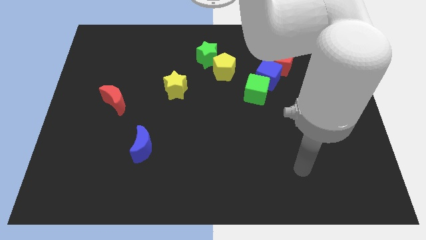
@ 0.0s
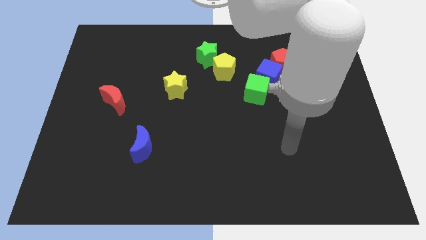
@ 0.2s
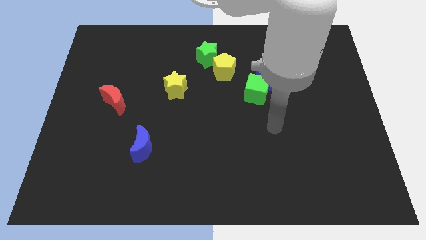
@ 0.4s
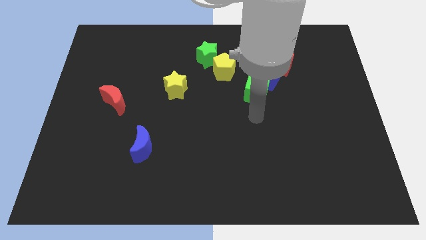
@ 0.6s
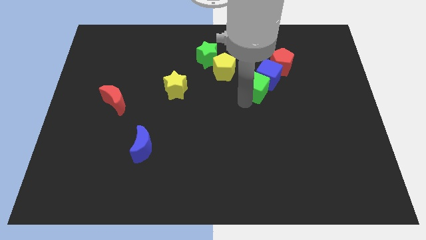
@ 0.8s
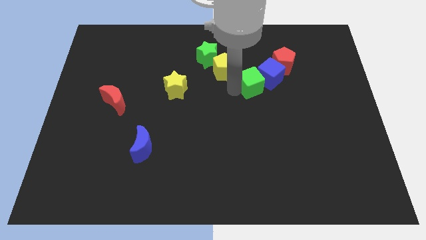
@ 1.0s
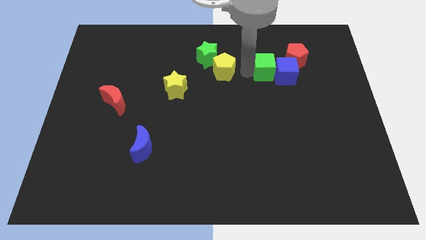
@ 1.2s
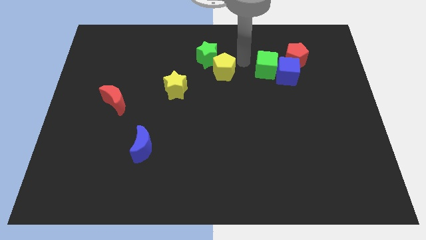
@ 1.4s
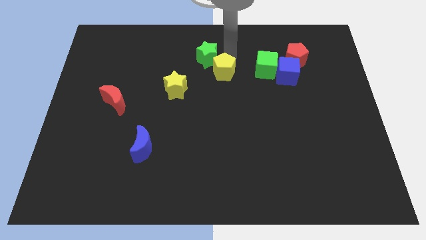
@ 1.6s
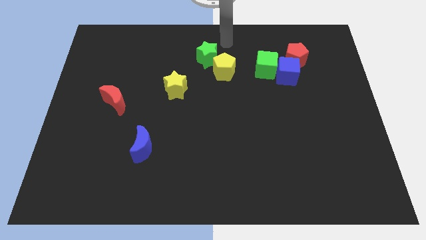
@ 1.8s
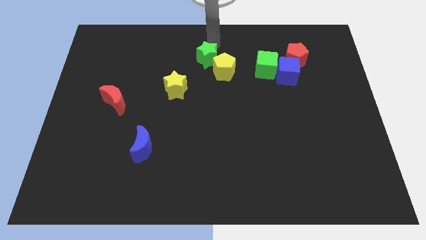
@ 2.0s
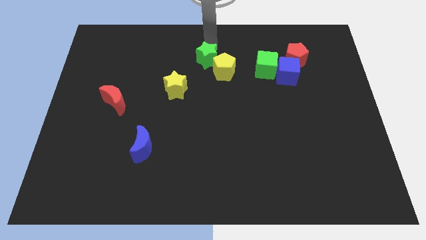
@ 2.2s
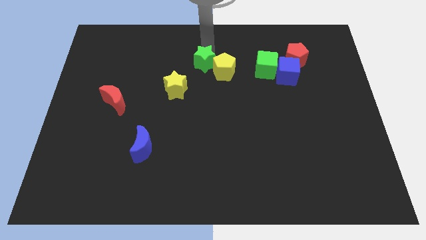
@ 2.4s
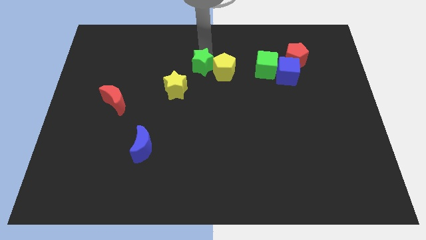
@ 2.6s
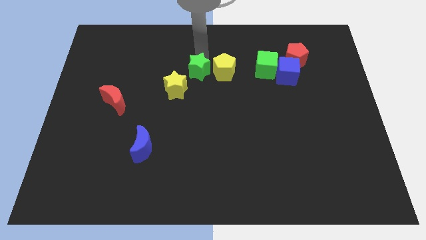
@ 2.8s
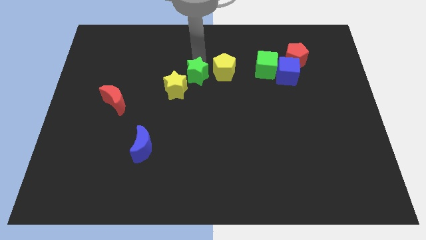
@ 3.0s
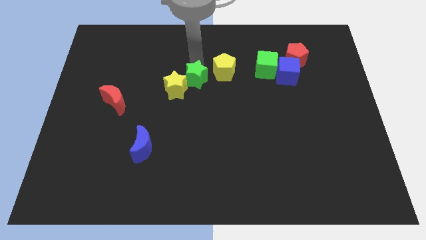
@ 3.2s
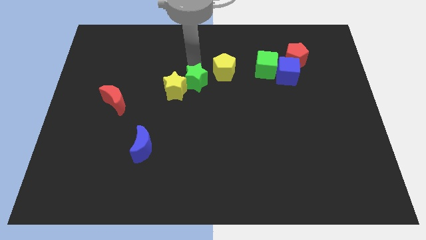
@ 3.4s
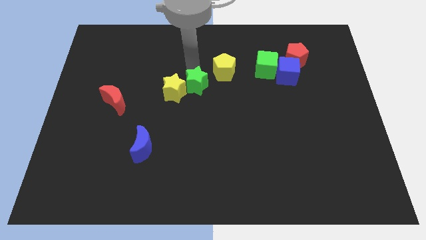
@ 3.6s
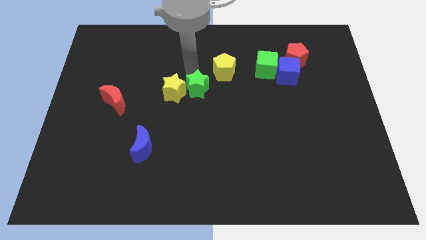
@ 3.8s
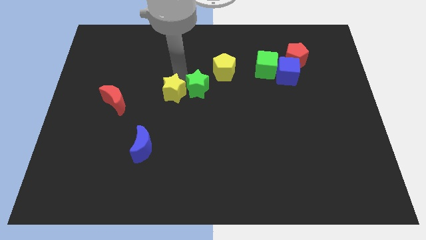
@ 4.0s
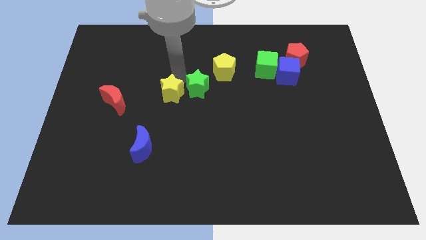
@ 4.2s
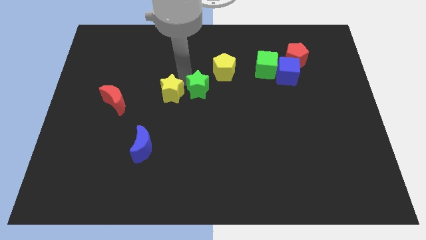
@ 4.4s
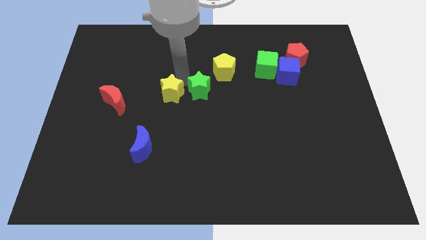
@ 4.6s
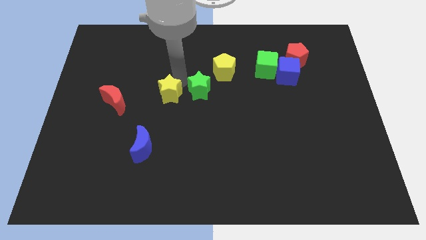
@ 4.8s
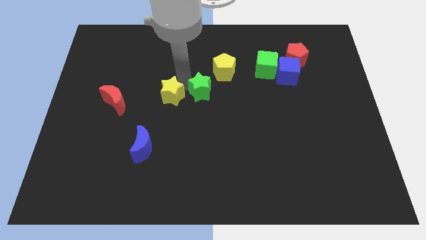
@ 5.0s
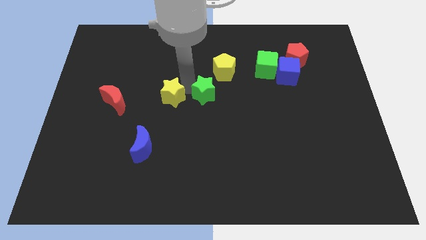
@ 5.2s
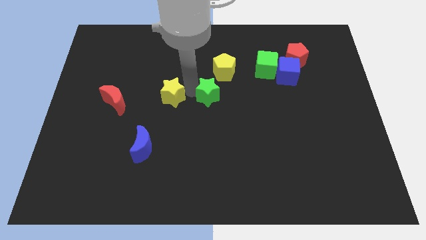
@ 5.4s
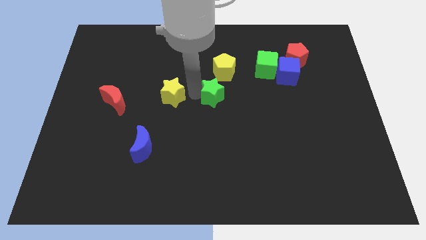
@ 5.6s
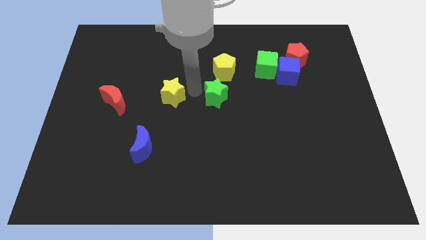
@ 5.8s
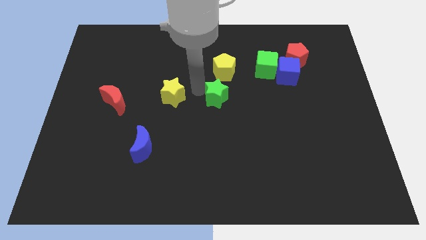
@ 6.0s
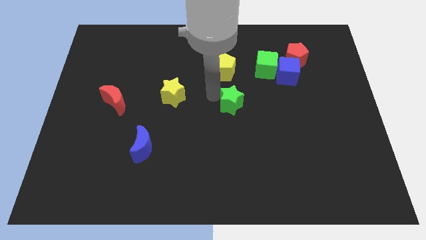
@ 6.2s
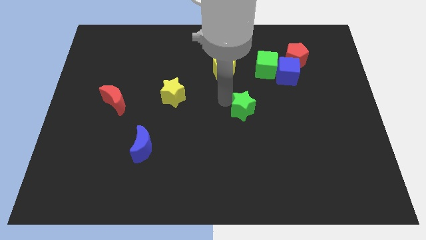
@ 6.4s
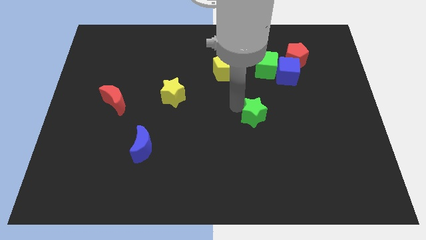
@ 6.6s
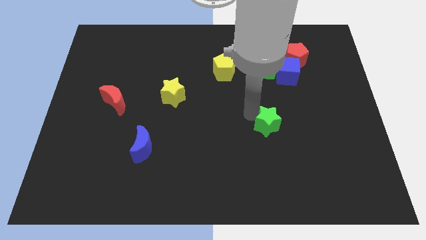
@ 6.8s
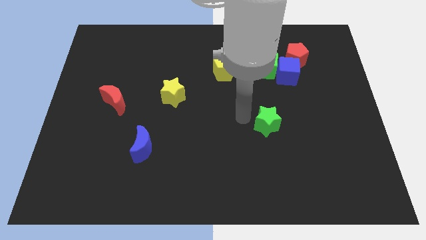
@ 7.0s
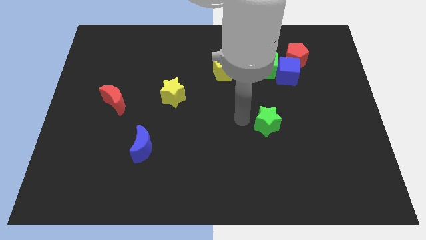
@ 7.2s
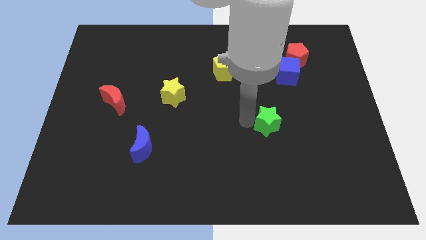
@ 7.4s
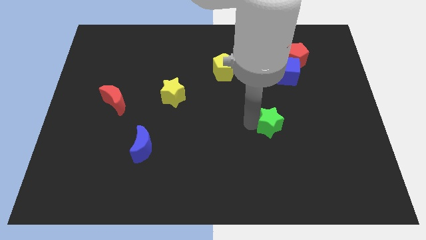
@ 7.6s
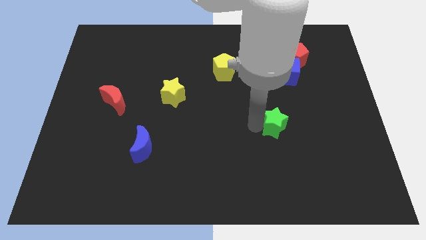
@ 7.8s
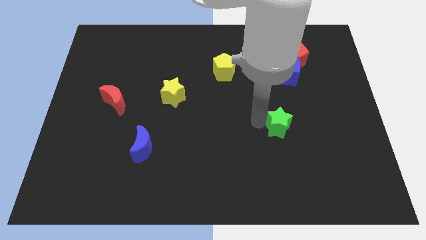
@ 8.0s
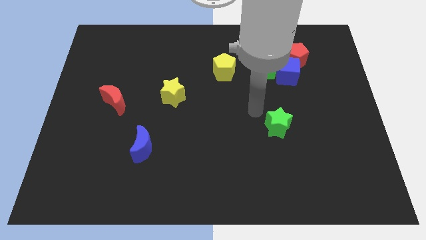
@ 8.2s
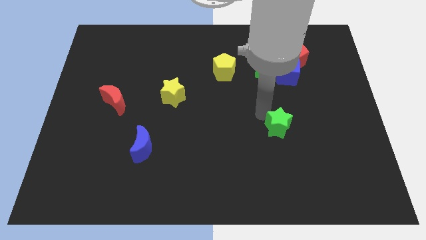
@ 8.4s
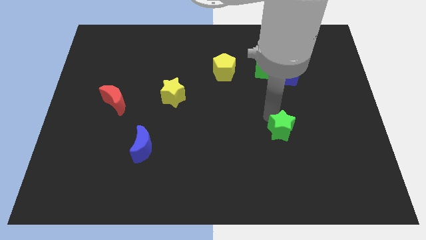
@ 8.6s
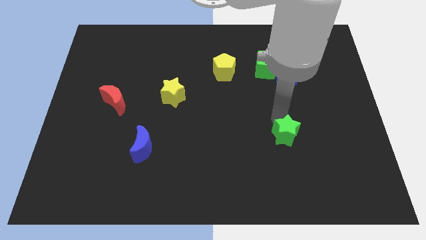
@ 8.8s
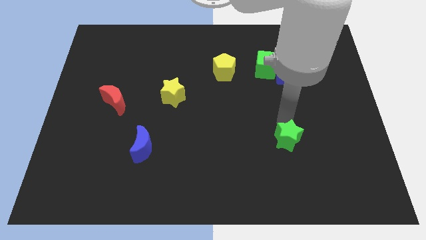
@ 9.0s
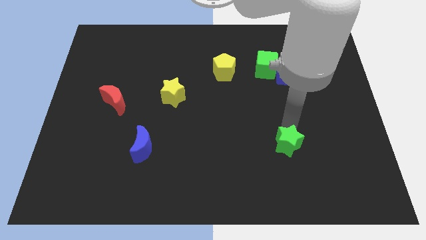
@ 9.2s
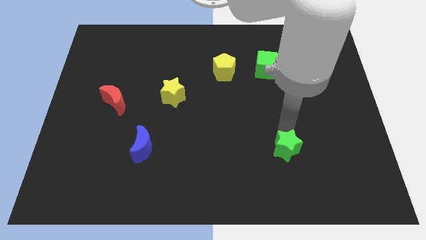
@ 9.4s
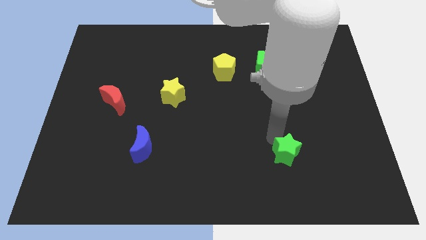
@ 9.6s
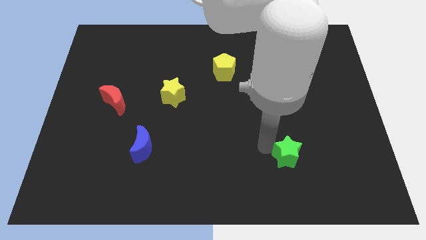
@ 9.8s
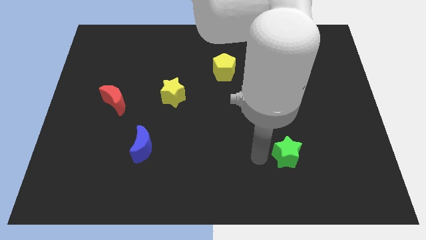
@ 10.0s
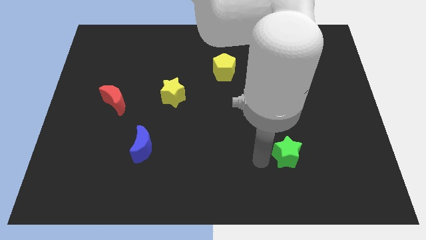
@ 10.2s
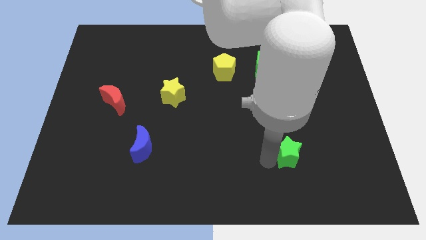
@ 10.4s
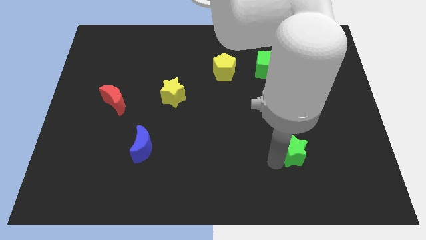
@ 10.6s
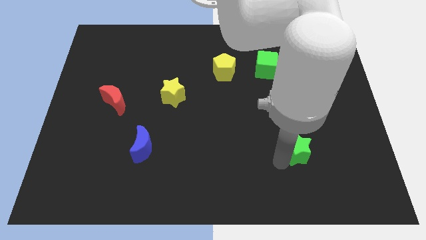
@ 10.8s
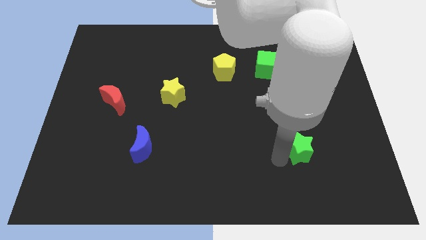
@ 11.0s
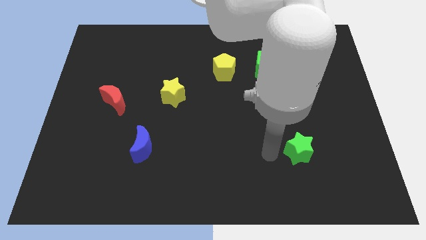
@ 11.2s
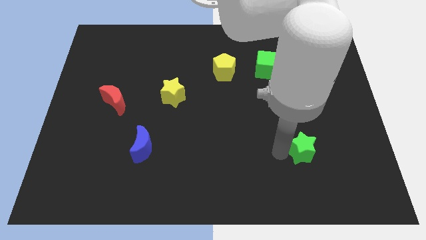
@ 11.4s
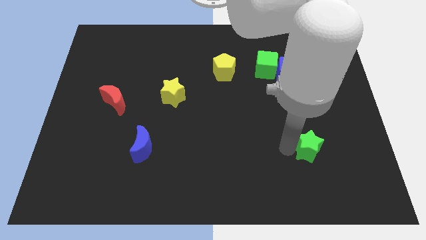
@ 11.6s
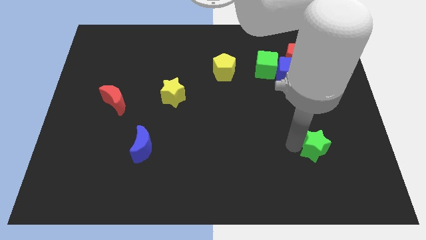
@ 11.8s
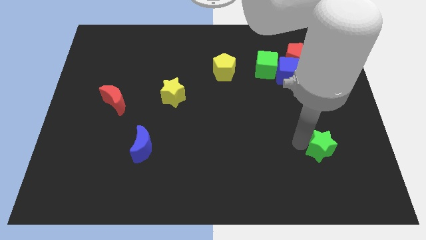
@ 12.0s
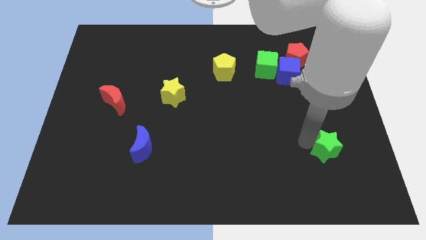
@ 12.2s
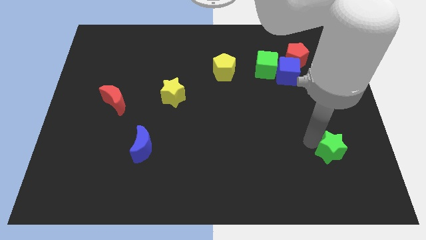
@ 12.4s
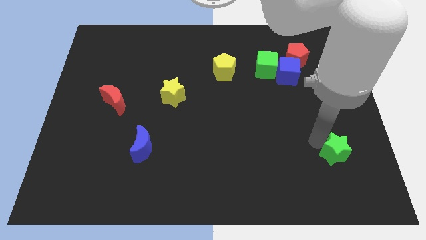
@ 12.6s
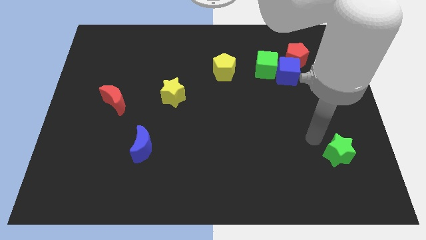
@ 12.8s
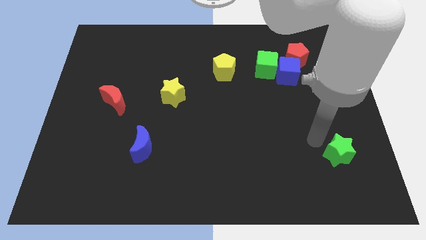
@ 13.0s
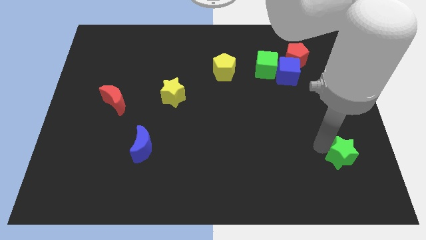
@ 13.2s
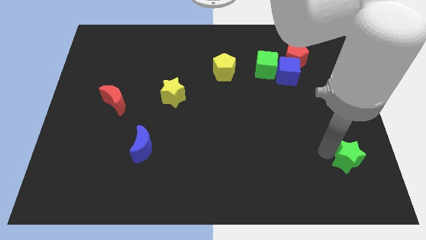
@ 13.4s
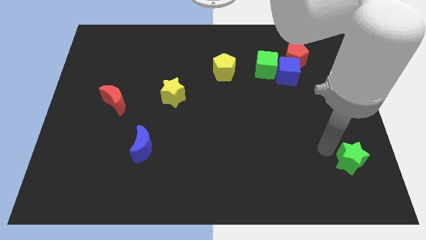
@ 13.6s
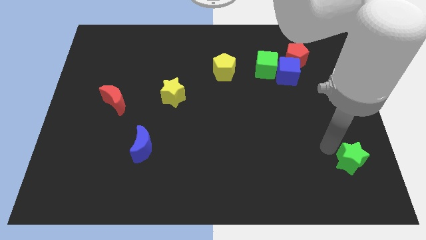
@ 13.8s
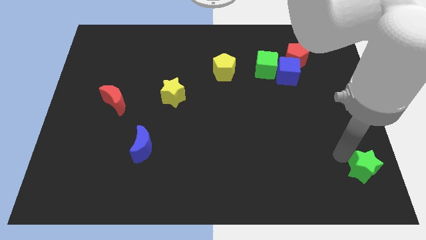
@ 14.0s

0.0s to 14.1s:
push the green star to the bottom right of the board
